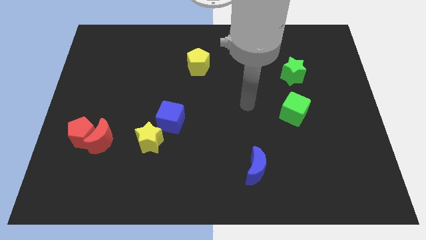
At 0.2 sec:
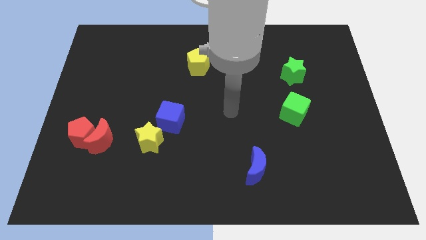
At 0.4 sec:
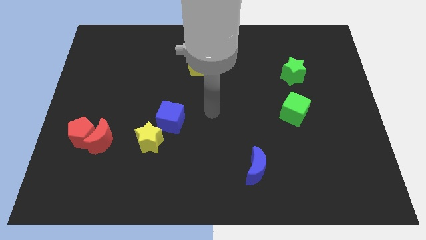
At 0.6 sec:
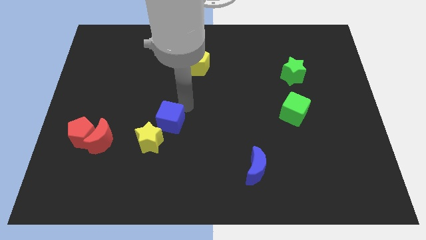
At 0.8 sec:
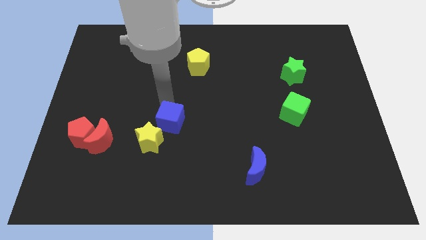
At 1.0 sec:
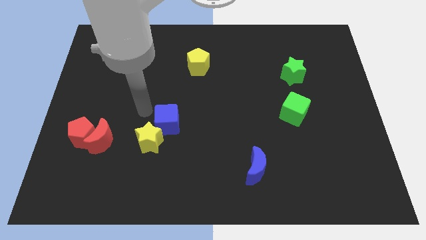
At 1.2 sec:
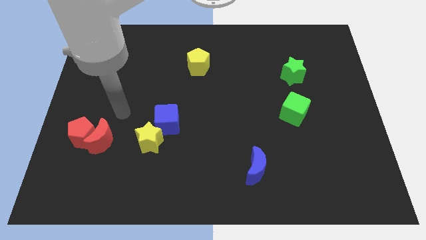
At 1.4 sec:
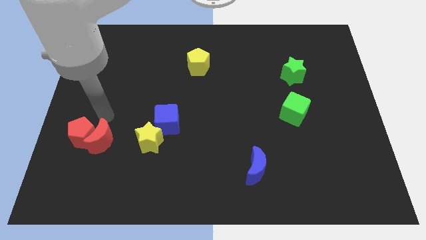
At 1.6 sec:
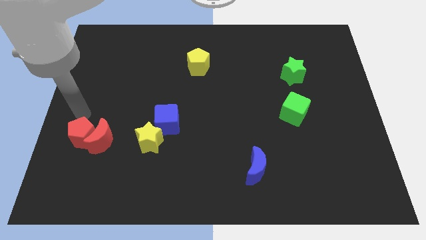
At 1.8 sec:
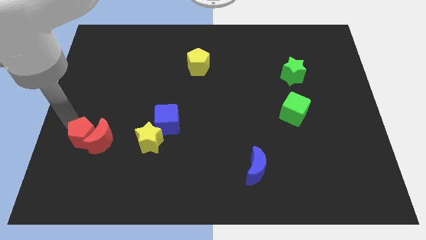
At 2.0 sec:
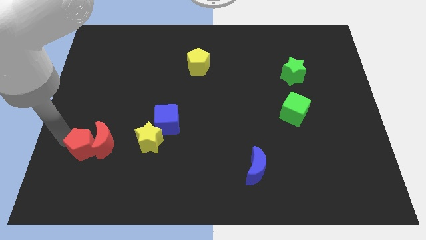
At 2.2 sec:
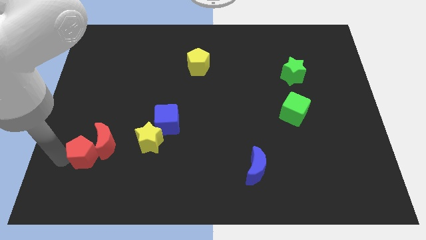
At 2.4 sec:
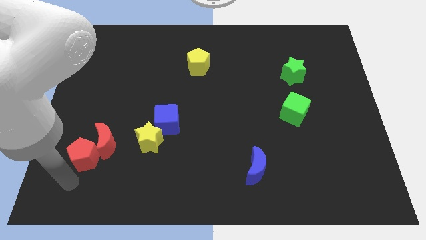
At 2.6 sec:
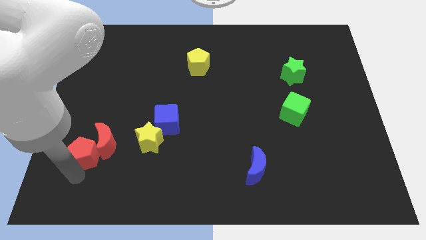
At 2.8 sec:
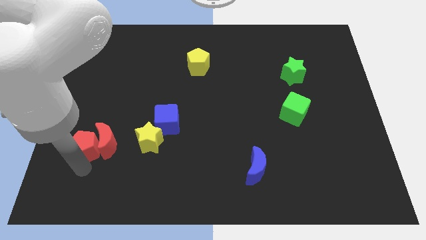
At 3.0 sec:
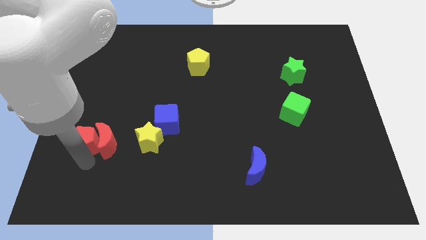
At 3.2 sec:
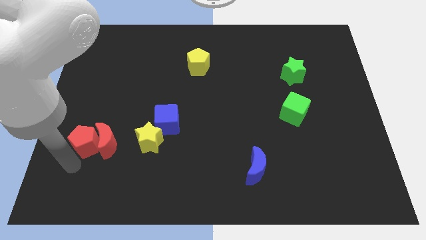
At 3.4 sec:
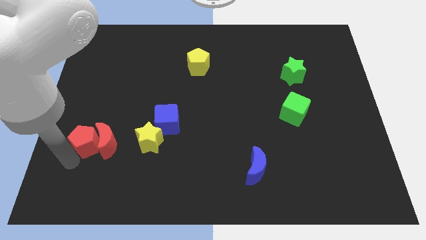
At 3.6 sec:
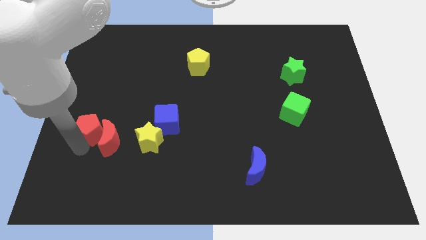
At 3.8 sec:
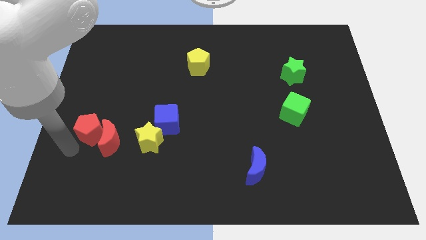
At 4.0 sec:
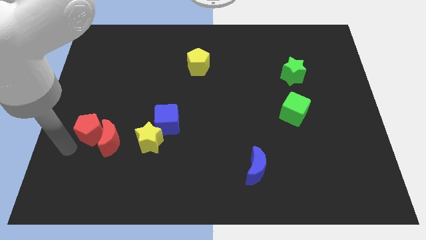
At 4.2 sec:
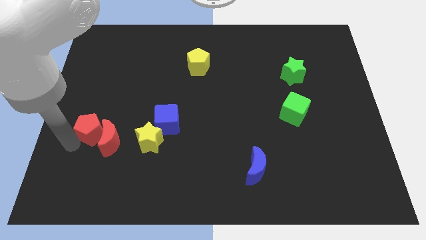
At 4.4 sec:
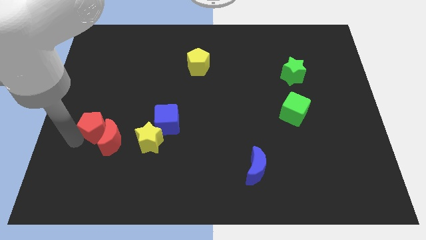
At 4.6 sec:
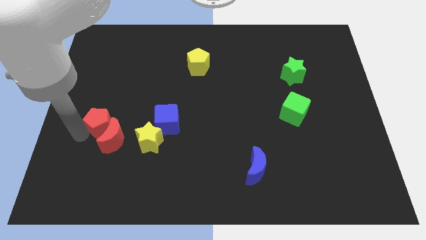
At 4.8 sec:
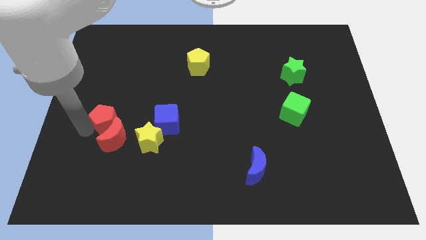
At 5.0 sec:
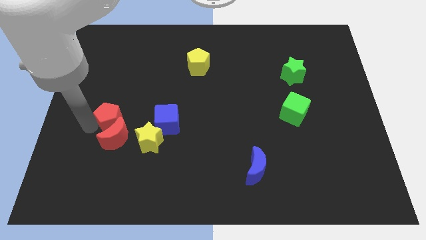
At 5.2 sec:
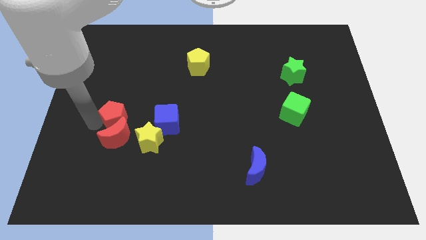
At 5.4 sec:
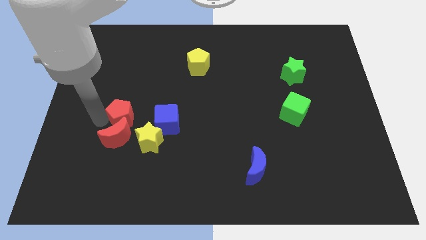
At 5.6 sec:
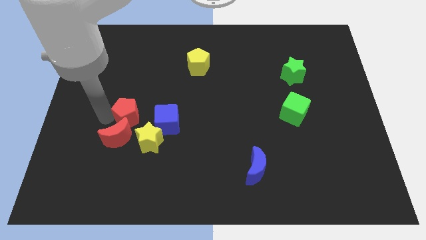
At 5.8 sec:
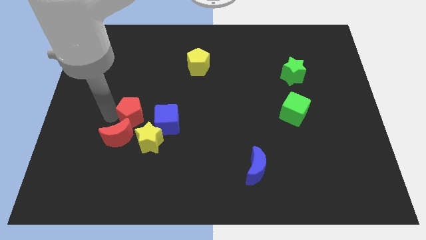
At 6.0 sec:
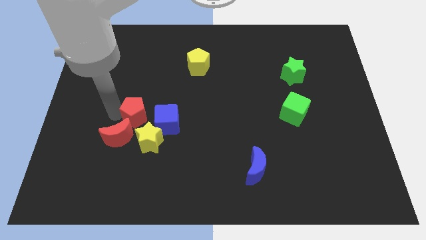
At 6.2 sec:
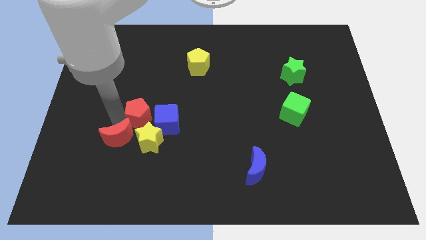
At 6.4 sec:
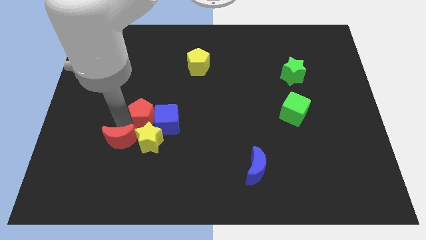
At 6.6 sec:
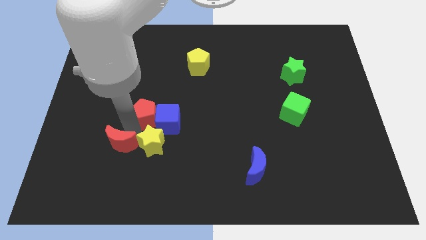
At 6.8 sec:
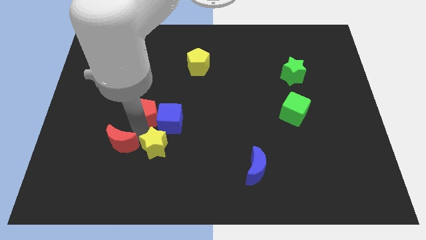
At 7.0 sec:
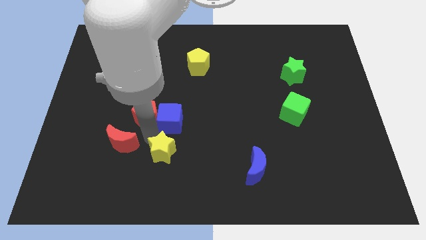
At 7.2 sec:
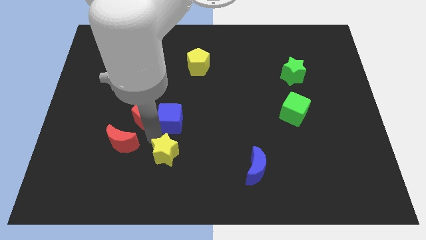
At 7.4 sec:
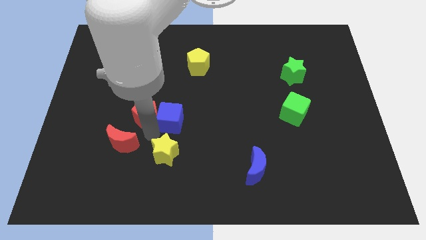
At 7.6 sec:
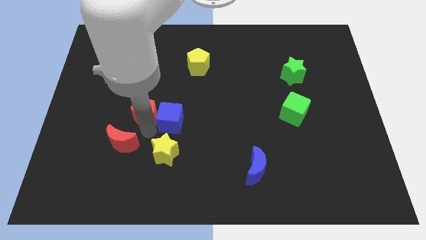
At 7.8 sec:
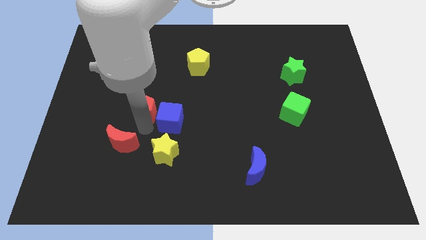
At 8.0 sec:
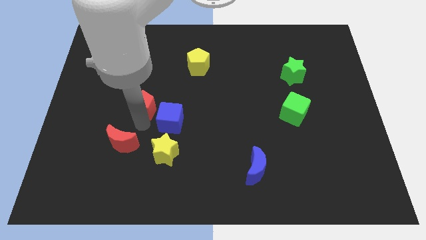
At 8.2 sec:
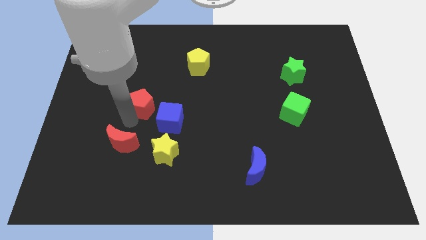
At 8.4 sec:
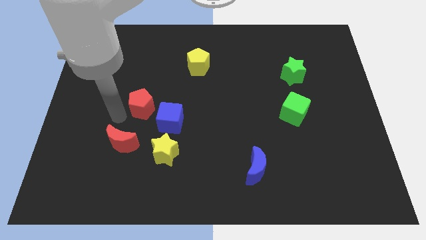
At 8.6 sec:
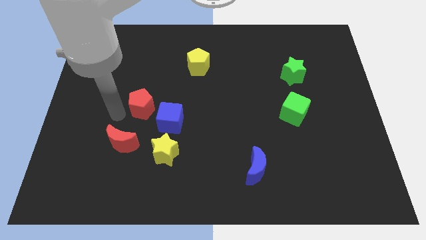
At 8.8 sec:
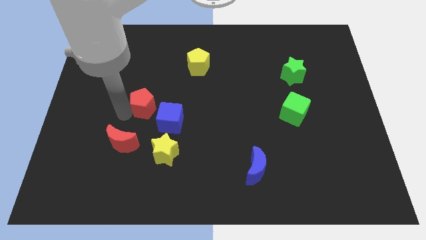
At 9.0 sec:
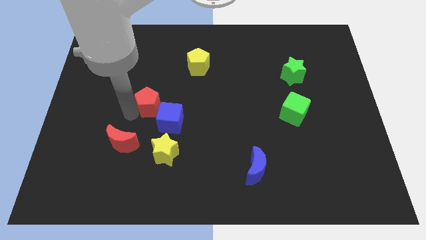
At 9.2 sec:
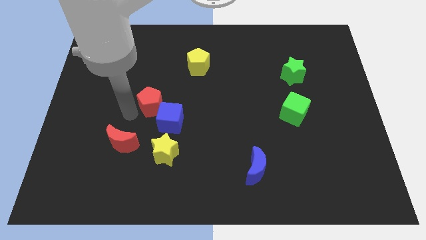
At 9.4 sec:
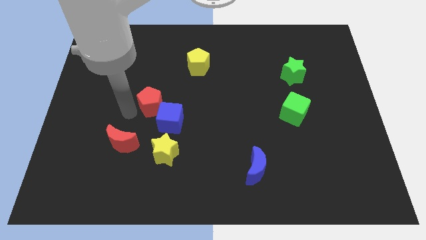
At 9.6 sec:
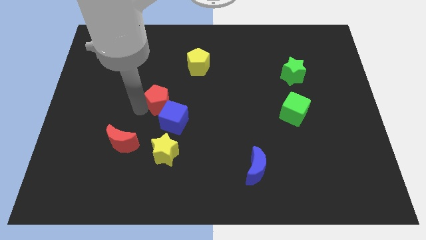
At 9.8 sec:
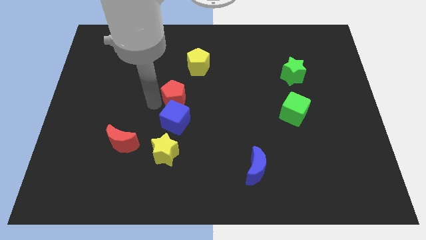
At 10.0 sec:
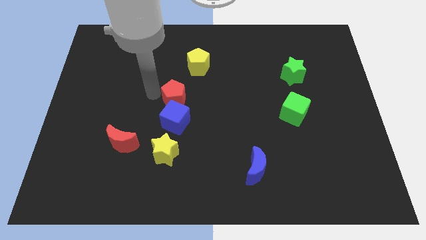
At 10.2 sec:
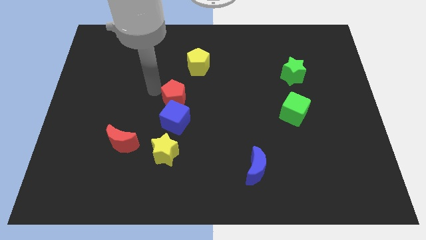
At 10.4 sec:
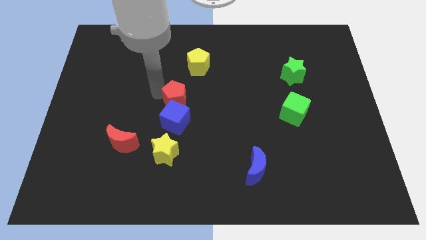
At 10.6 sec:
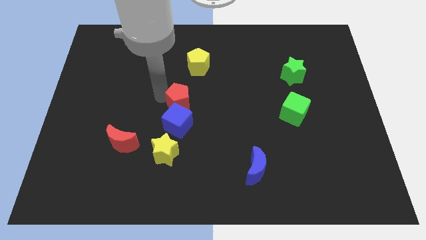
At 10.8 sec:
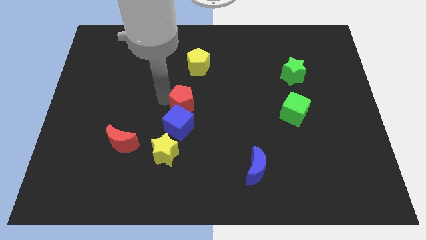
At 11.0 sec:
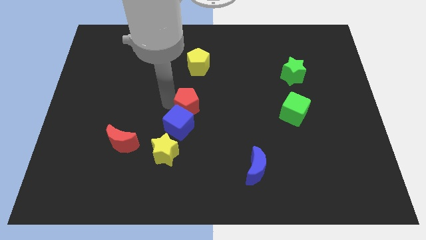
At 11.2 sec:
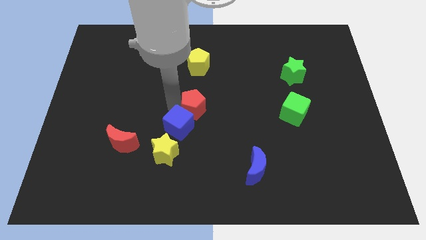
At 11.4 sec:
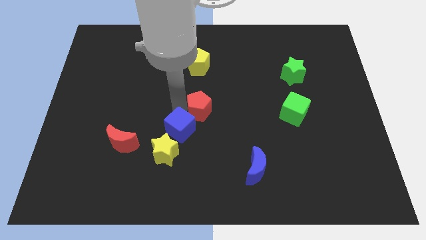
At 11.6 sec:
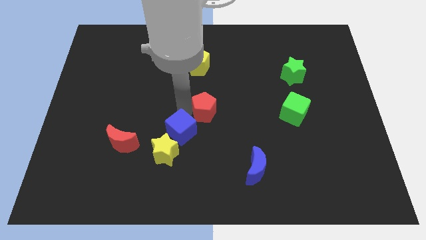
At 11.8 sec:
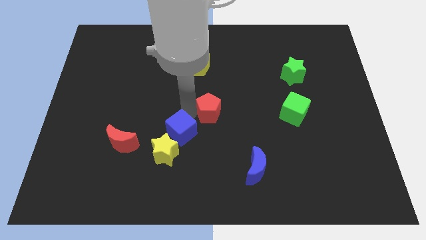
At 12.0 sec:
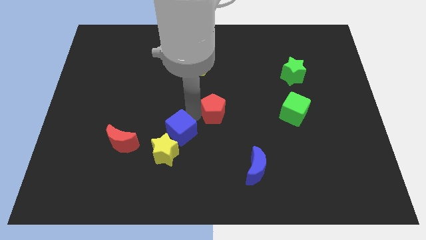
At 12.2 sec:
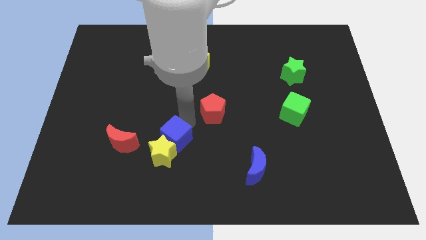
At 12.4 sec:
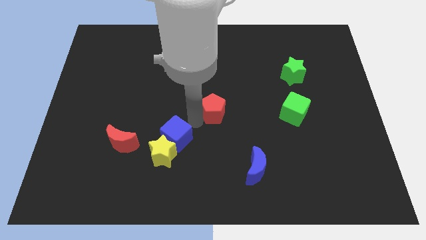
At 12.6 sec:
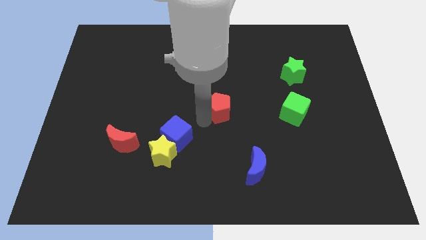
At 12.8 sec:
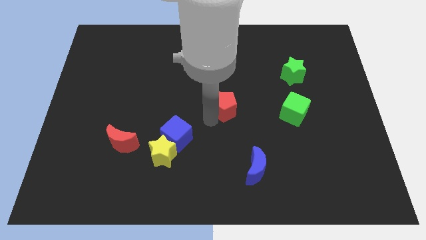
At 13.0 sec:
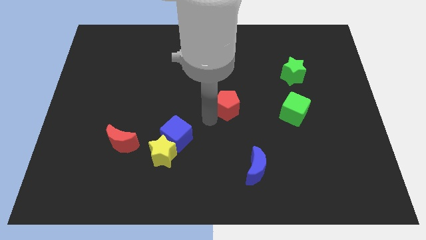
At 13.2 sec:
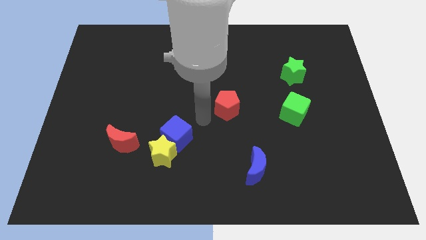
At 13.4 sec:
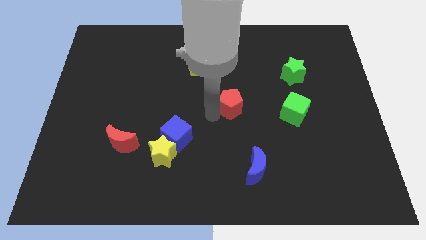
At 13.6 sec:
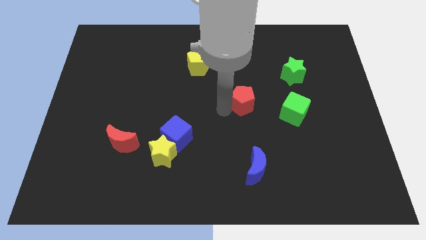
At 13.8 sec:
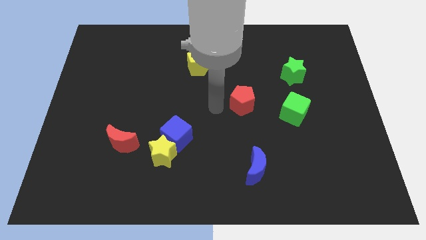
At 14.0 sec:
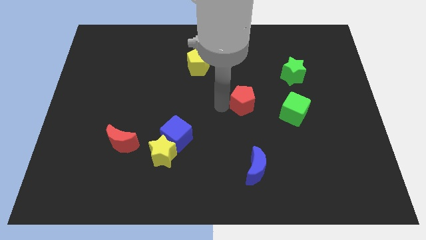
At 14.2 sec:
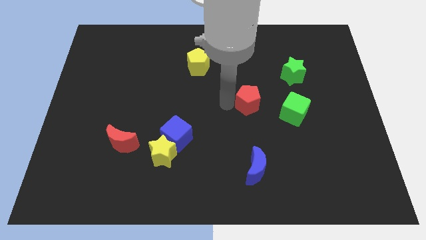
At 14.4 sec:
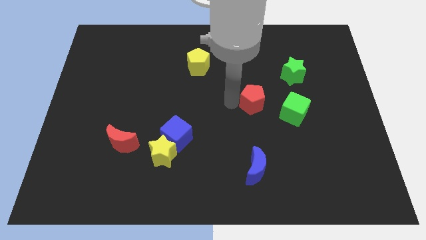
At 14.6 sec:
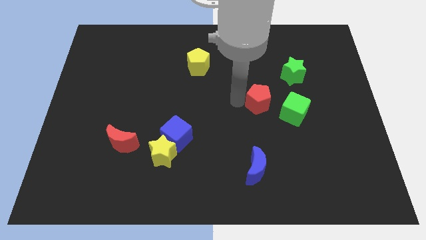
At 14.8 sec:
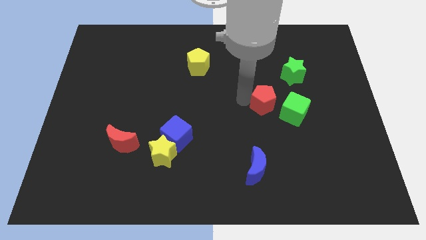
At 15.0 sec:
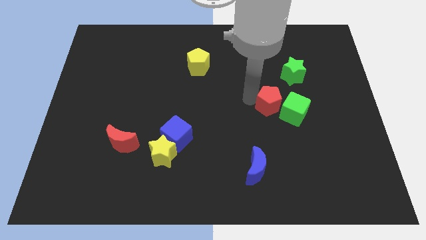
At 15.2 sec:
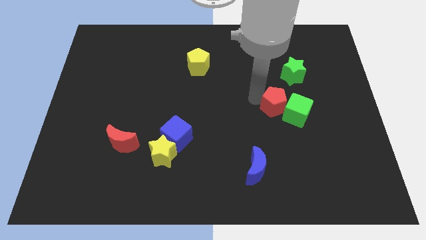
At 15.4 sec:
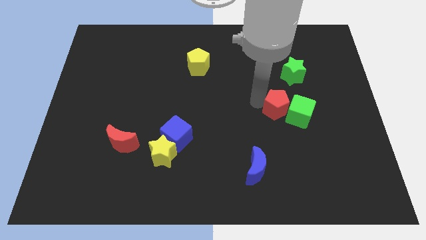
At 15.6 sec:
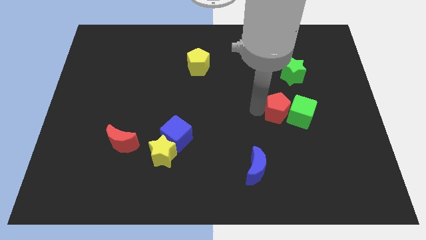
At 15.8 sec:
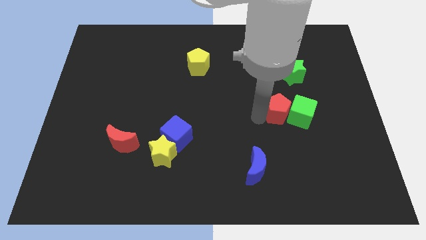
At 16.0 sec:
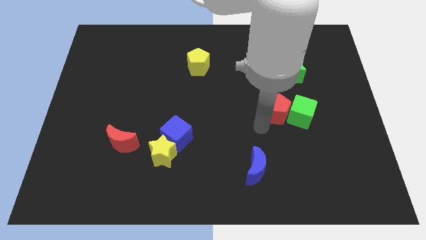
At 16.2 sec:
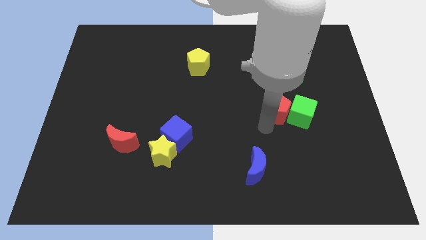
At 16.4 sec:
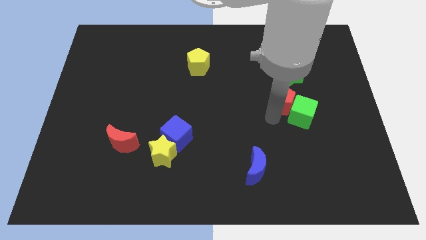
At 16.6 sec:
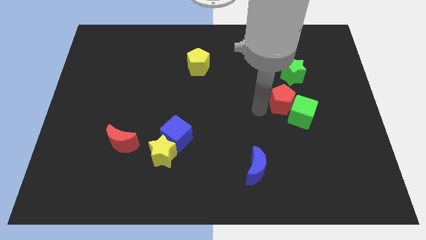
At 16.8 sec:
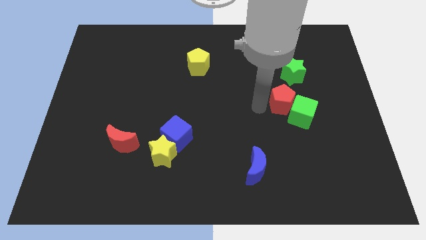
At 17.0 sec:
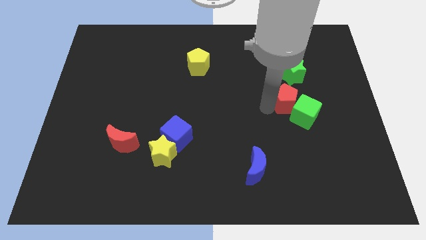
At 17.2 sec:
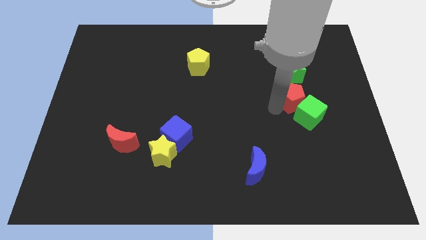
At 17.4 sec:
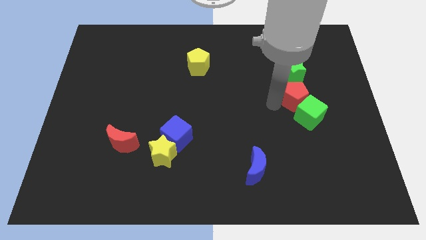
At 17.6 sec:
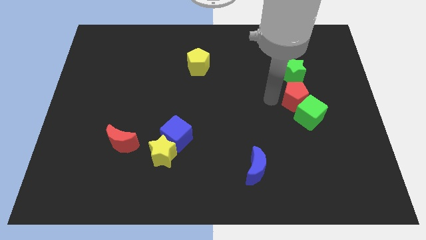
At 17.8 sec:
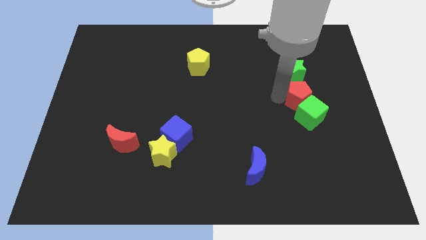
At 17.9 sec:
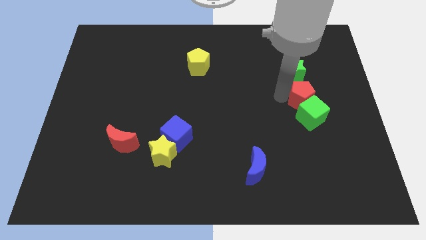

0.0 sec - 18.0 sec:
slide the red pentagon to the top right of the green cube
